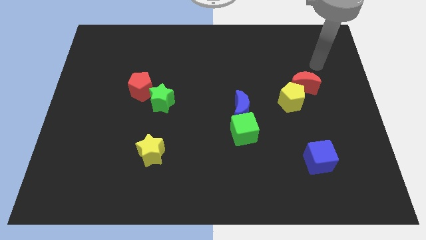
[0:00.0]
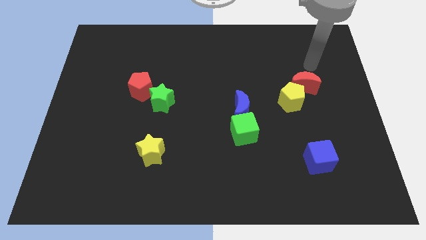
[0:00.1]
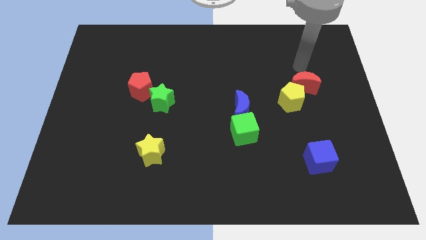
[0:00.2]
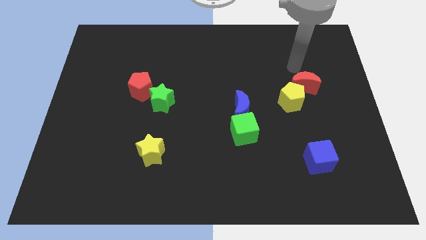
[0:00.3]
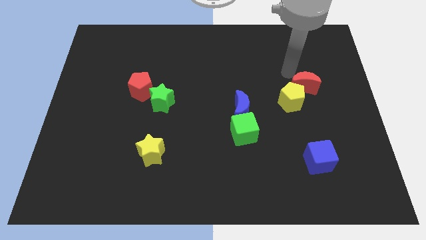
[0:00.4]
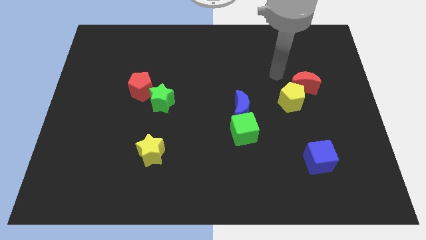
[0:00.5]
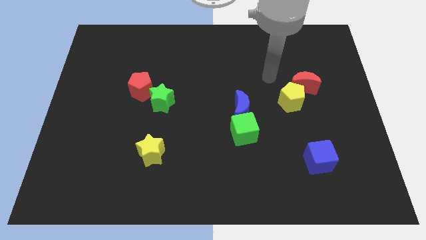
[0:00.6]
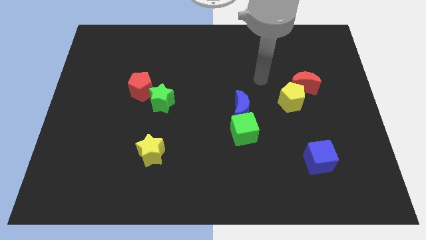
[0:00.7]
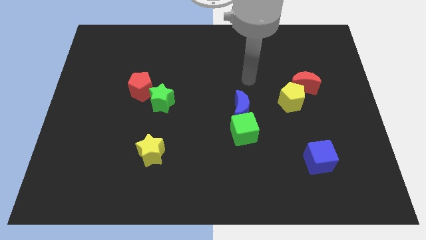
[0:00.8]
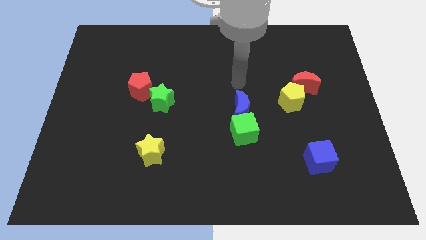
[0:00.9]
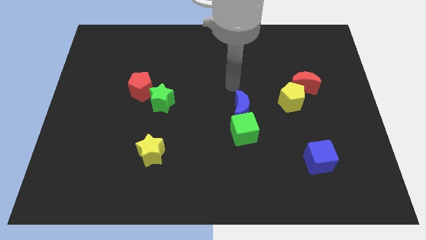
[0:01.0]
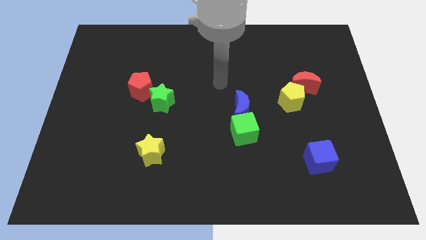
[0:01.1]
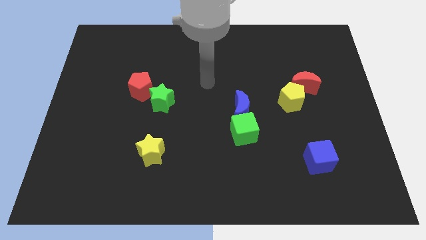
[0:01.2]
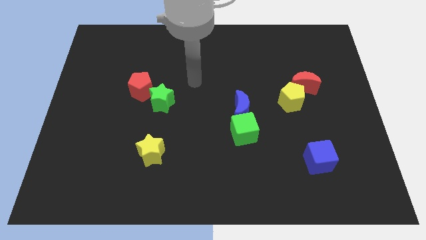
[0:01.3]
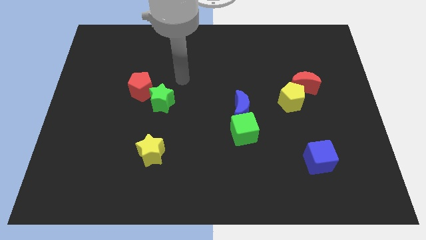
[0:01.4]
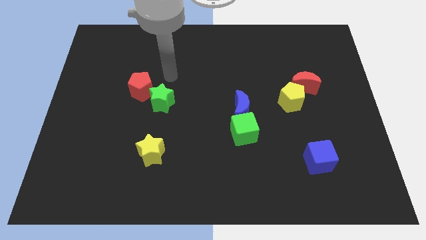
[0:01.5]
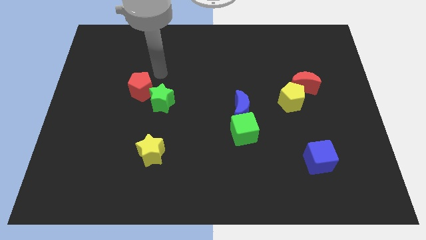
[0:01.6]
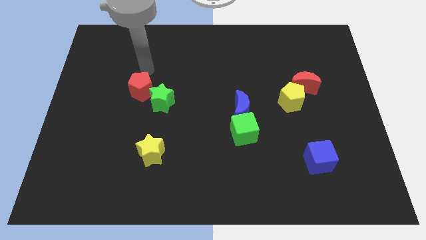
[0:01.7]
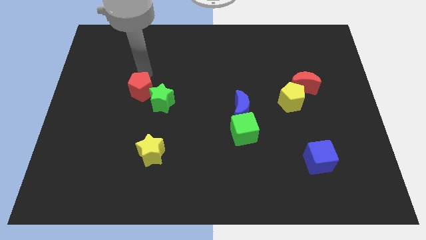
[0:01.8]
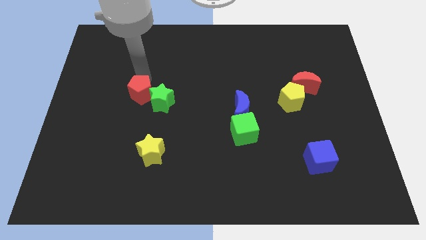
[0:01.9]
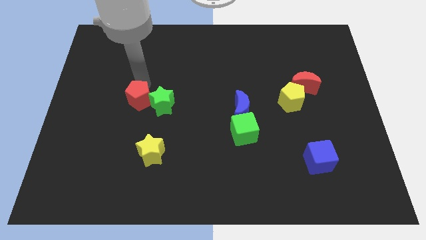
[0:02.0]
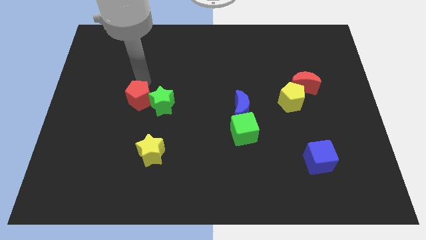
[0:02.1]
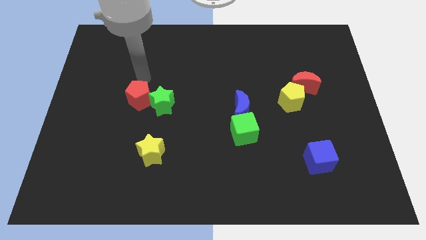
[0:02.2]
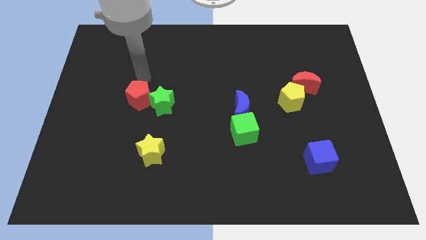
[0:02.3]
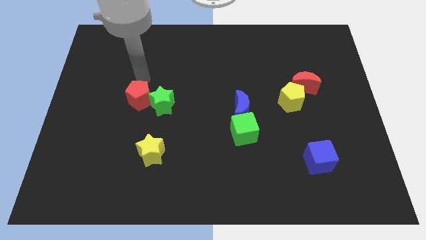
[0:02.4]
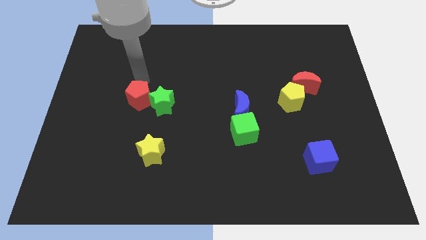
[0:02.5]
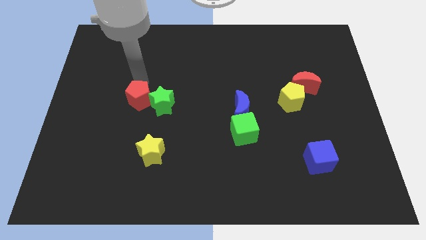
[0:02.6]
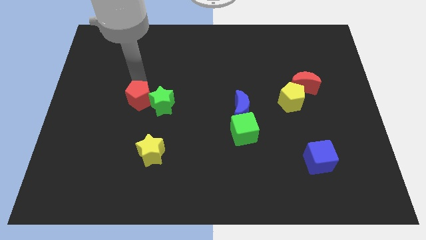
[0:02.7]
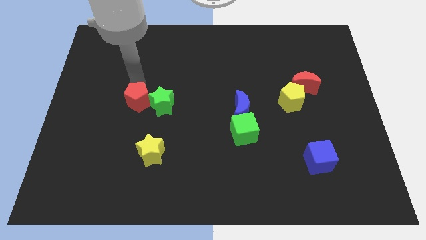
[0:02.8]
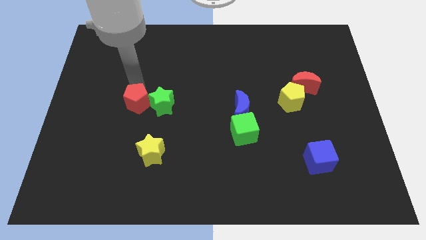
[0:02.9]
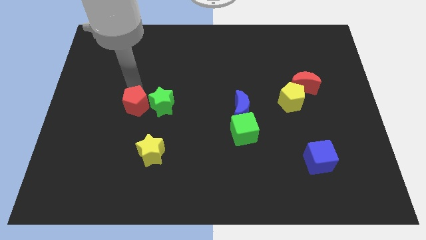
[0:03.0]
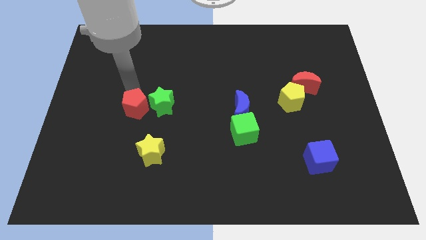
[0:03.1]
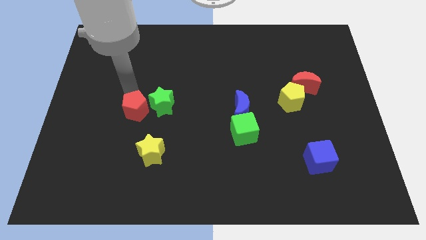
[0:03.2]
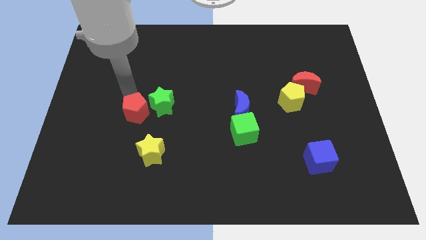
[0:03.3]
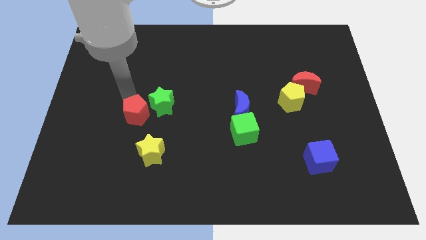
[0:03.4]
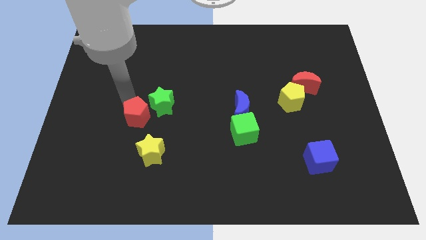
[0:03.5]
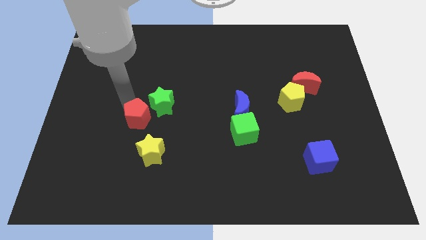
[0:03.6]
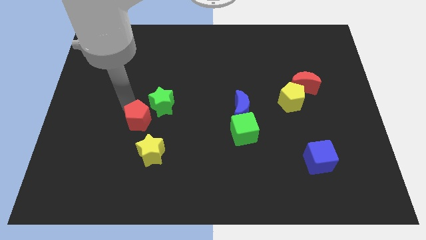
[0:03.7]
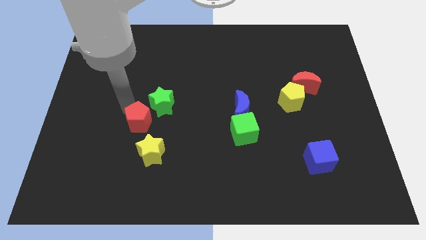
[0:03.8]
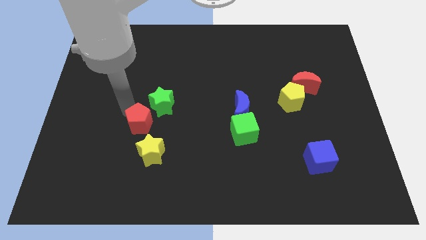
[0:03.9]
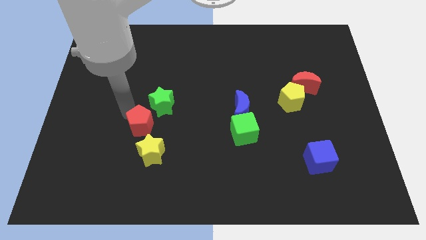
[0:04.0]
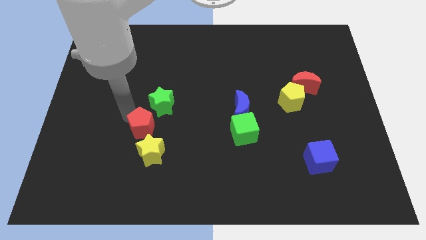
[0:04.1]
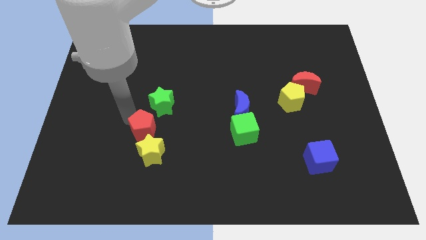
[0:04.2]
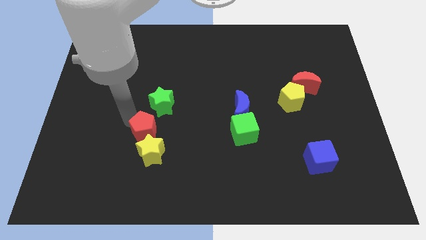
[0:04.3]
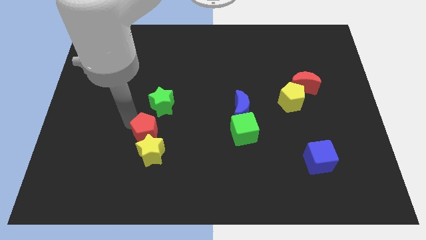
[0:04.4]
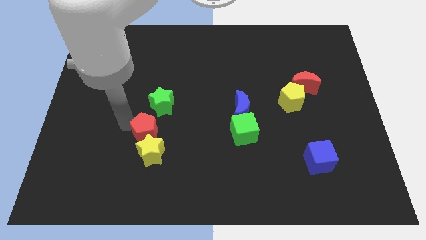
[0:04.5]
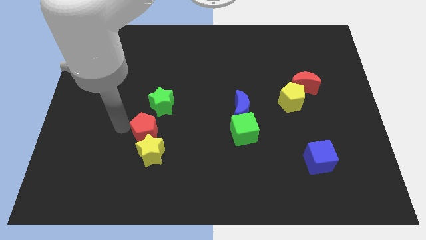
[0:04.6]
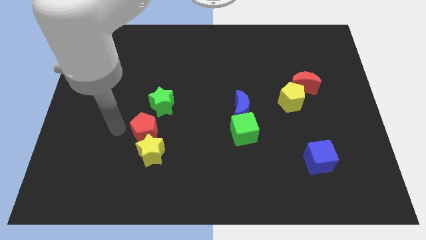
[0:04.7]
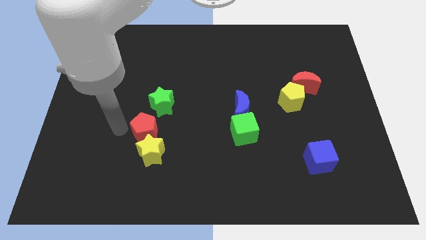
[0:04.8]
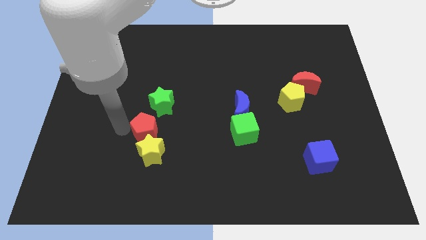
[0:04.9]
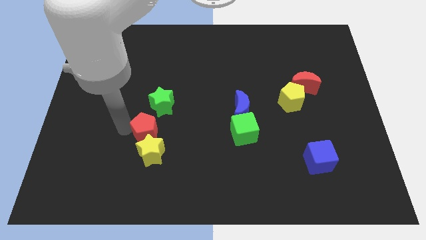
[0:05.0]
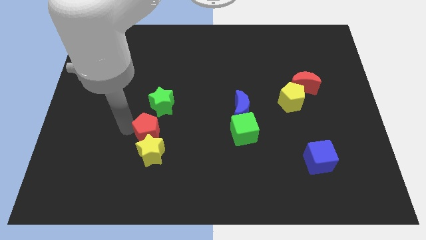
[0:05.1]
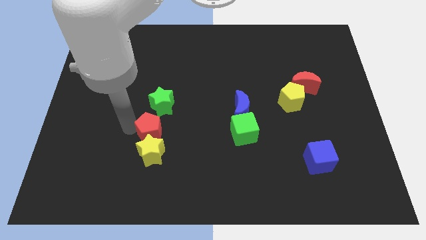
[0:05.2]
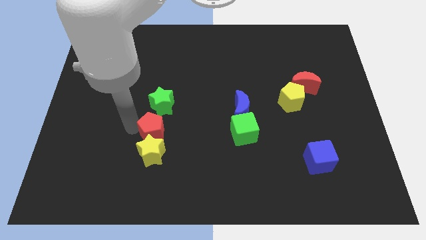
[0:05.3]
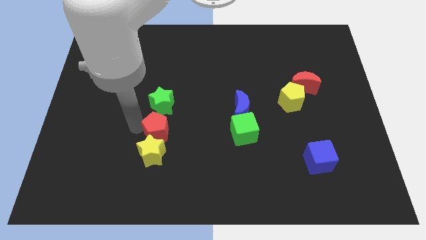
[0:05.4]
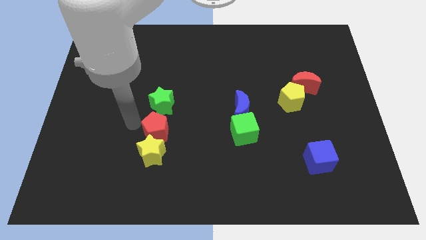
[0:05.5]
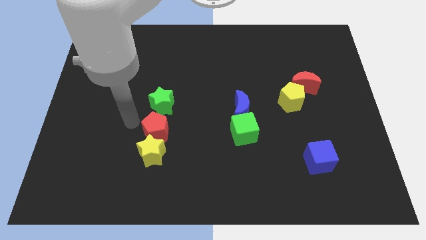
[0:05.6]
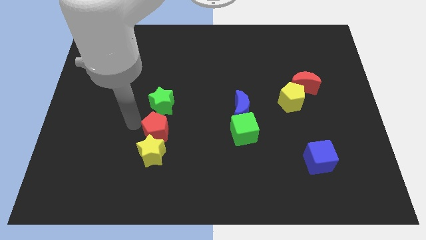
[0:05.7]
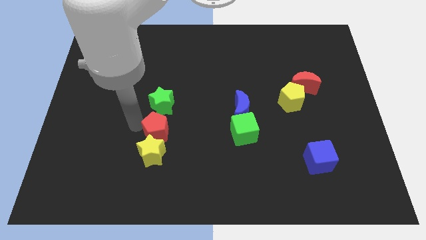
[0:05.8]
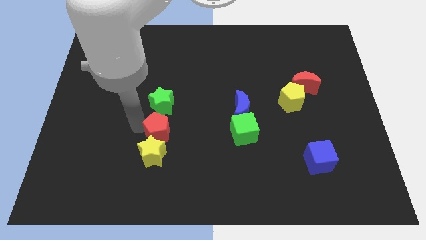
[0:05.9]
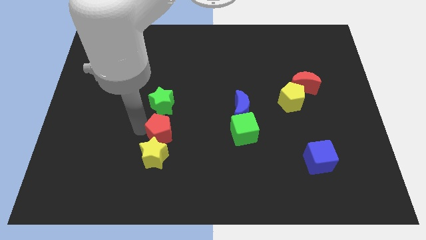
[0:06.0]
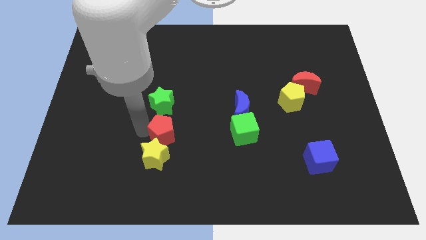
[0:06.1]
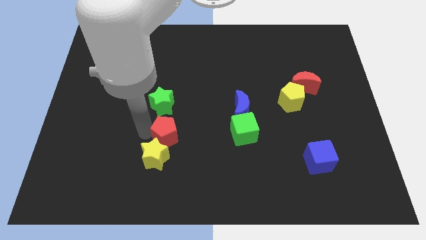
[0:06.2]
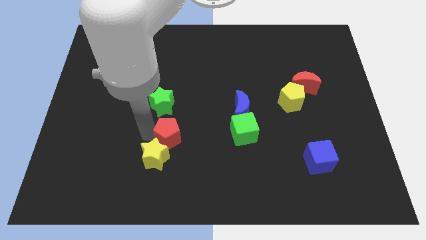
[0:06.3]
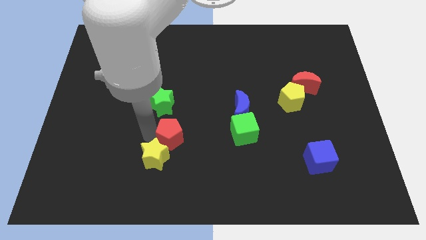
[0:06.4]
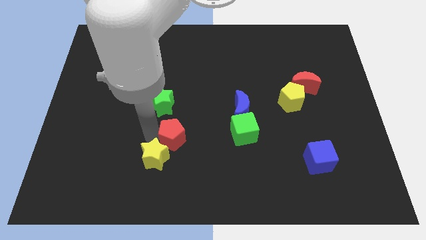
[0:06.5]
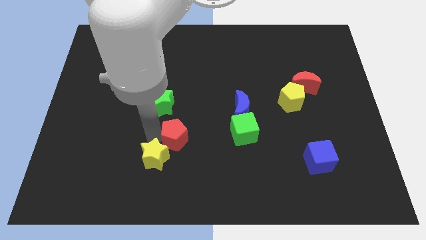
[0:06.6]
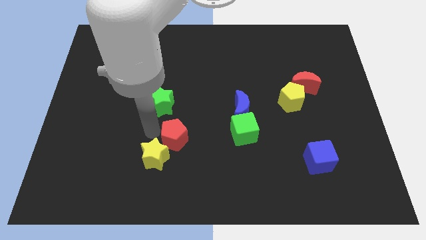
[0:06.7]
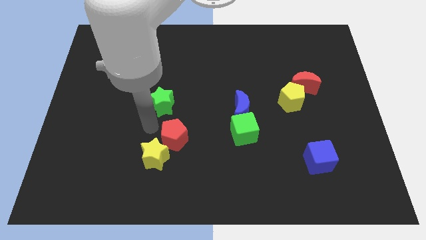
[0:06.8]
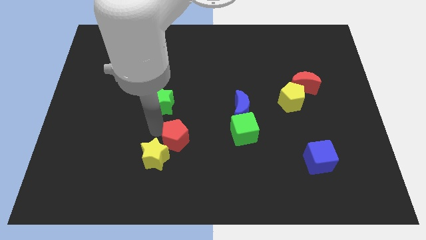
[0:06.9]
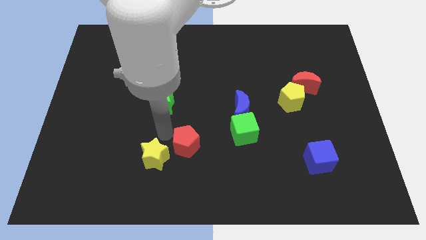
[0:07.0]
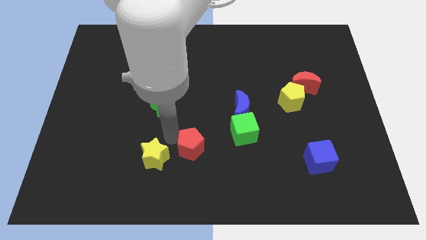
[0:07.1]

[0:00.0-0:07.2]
move the red pentagon down and to the right diagonally

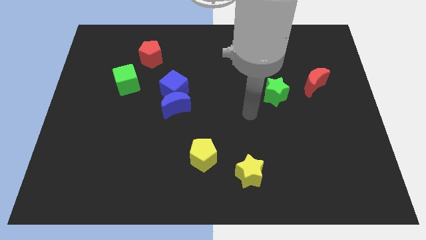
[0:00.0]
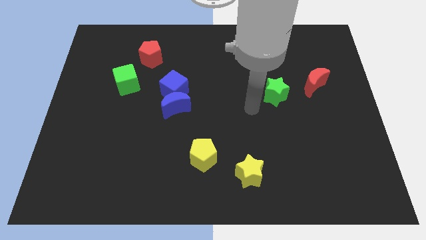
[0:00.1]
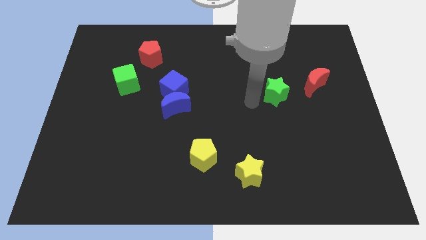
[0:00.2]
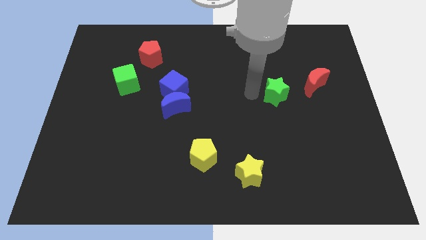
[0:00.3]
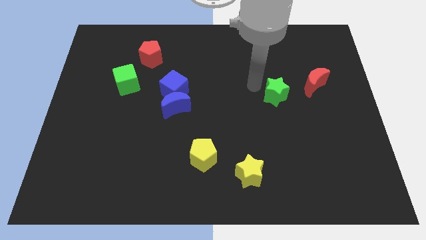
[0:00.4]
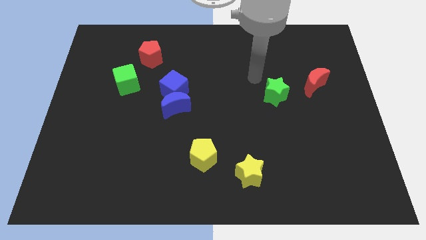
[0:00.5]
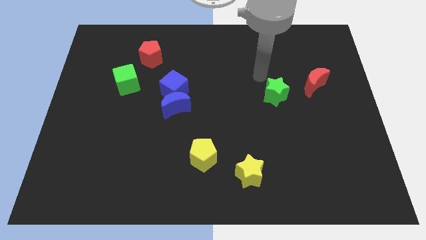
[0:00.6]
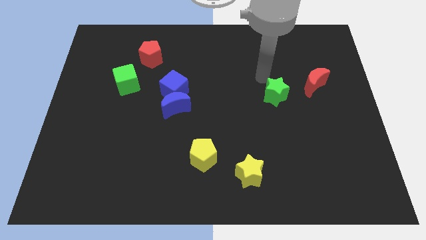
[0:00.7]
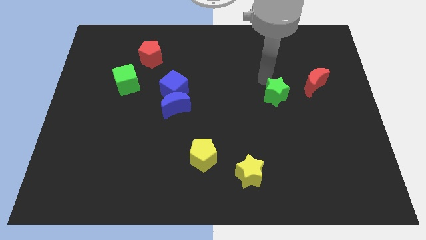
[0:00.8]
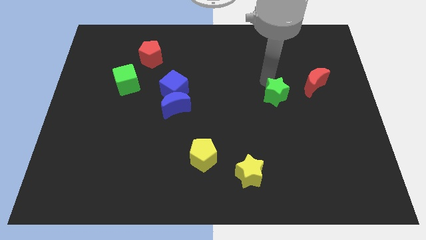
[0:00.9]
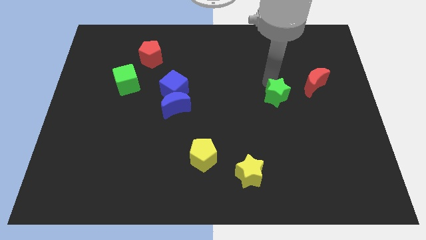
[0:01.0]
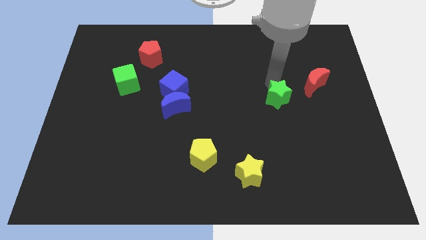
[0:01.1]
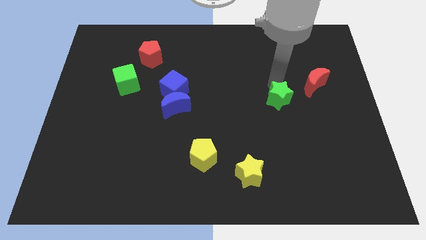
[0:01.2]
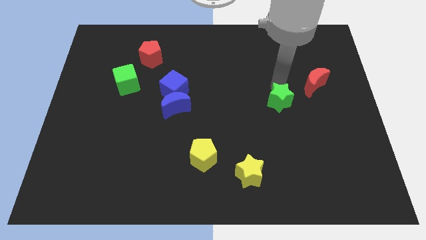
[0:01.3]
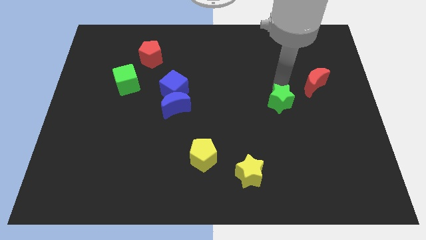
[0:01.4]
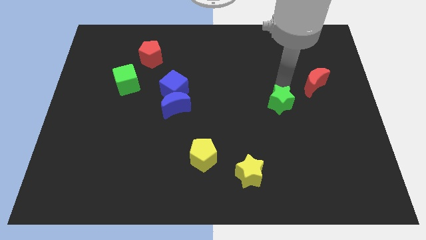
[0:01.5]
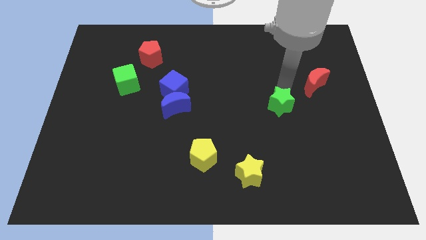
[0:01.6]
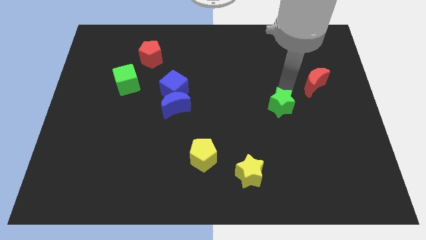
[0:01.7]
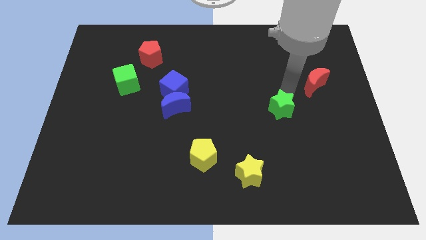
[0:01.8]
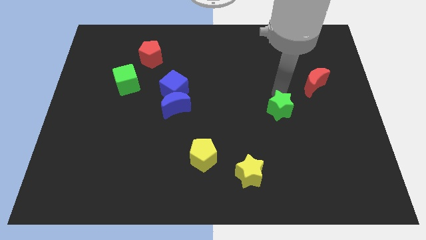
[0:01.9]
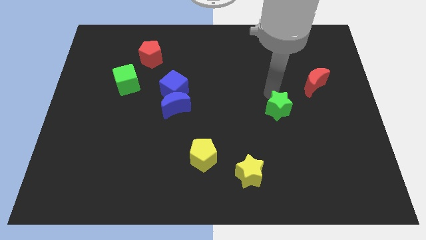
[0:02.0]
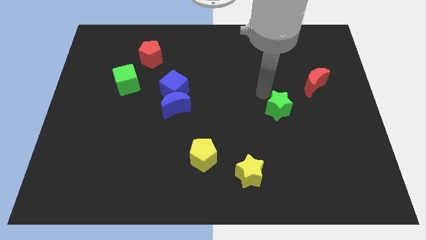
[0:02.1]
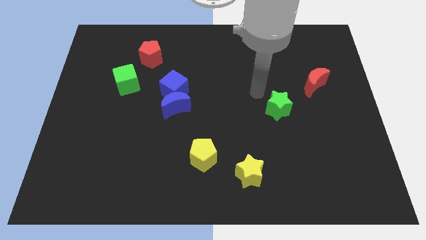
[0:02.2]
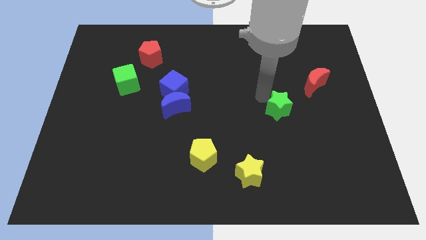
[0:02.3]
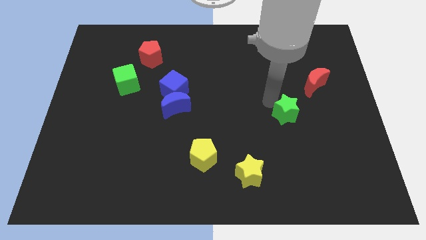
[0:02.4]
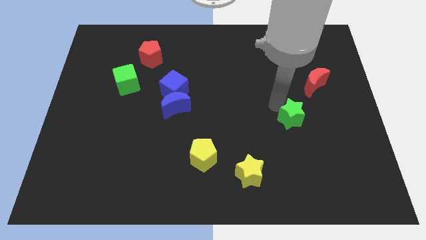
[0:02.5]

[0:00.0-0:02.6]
slide the green star downwards and then right somewhat
